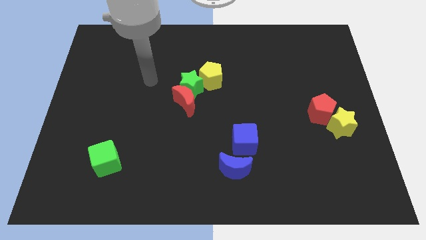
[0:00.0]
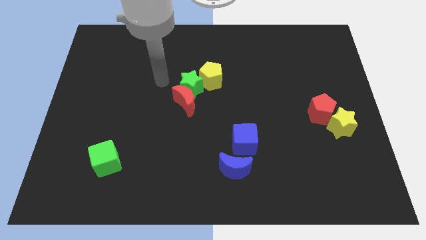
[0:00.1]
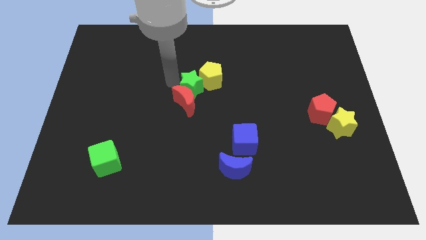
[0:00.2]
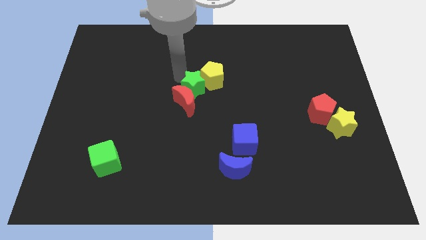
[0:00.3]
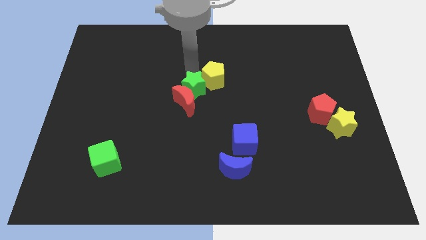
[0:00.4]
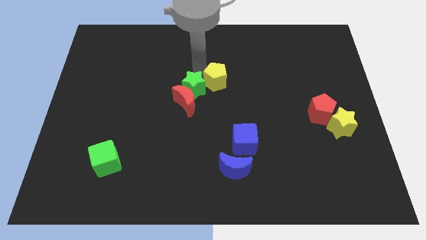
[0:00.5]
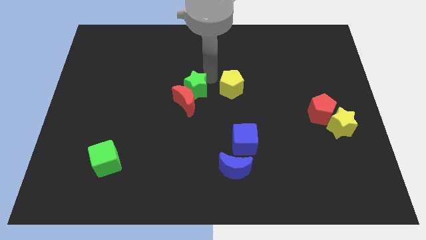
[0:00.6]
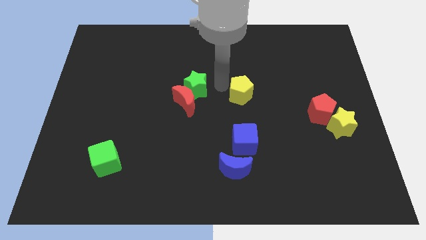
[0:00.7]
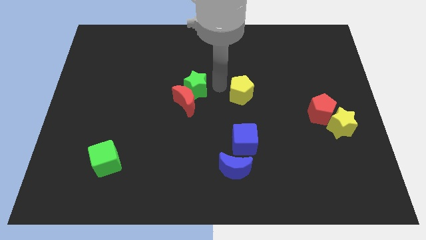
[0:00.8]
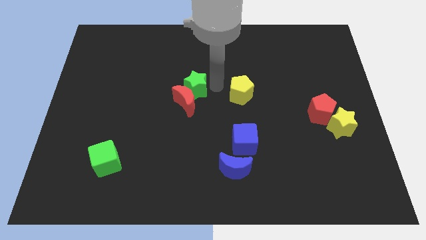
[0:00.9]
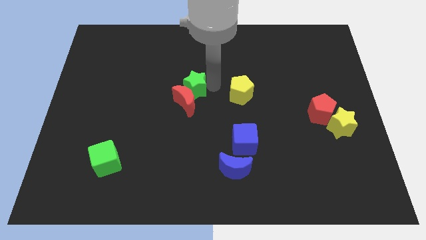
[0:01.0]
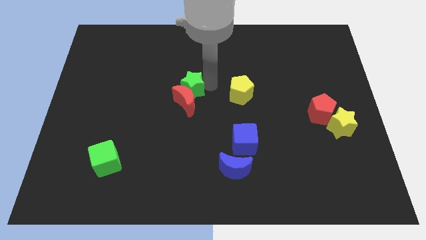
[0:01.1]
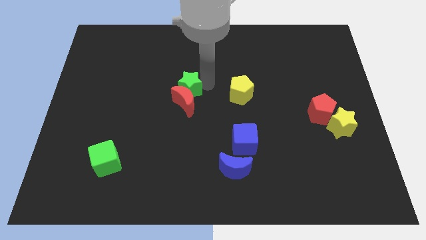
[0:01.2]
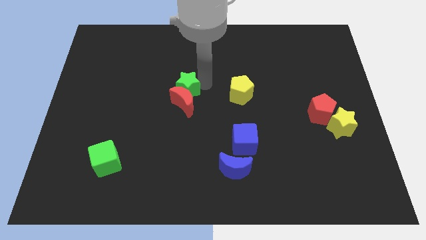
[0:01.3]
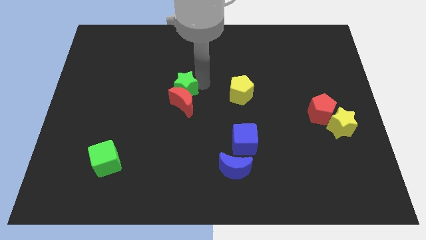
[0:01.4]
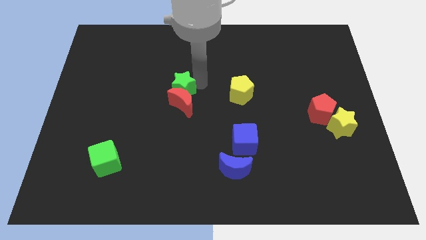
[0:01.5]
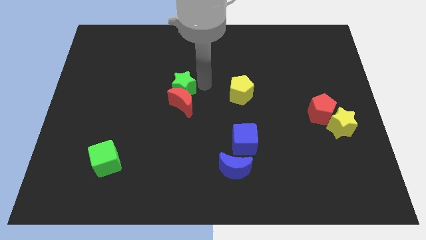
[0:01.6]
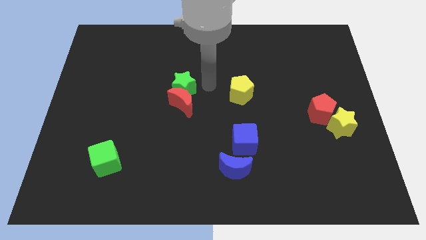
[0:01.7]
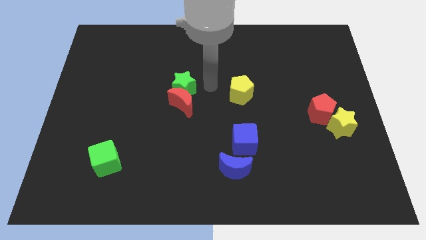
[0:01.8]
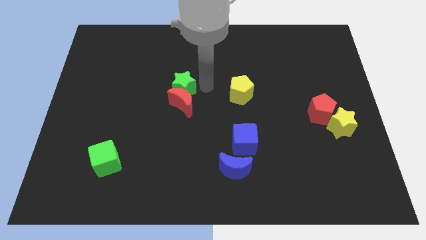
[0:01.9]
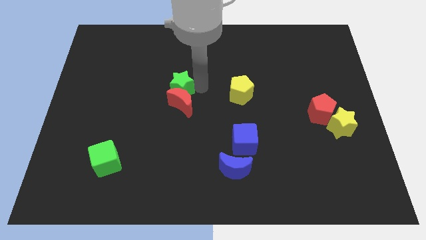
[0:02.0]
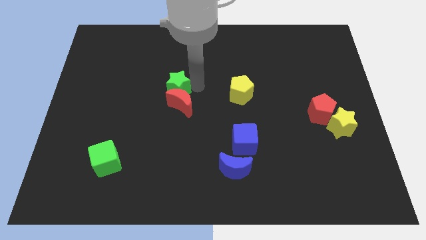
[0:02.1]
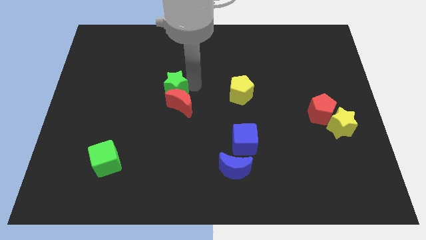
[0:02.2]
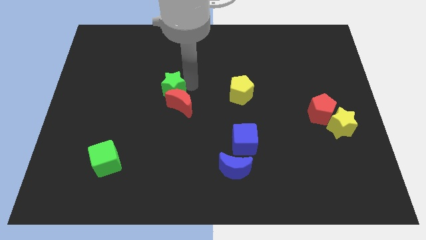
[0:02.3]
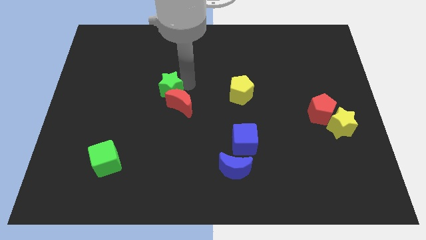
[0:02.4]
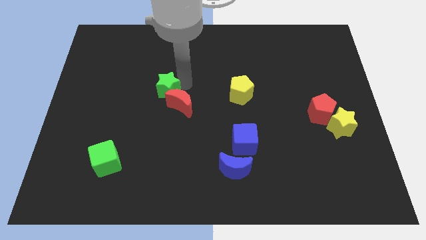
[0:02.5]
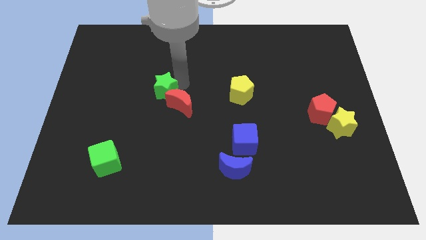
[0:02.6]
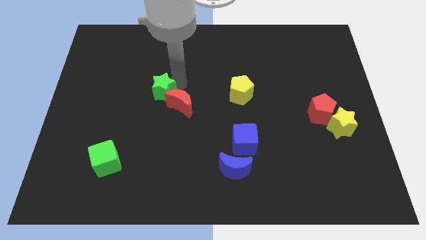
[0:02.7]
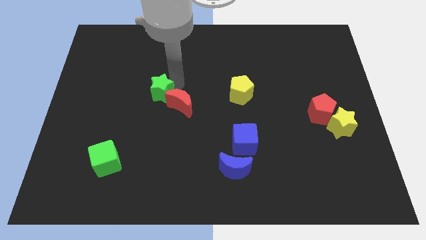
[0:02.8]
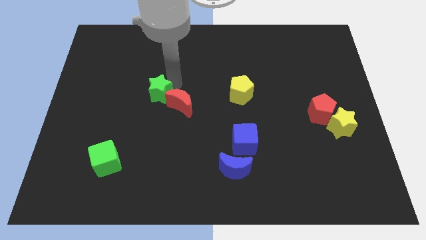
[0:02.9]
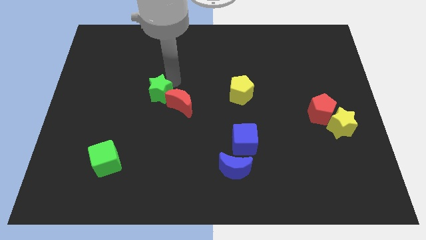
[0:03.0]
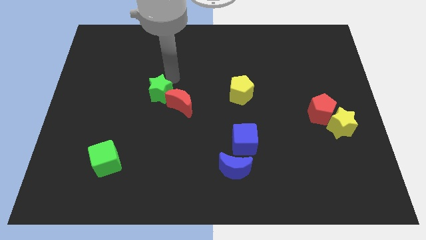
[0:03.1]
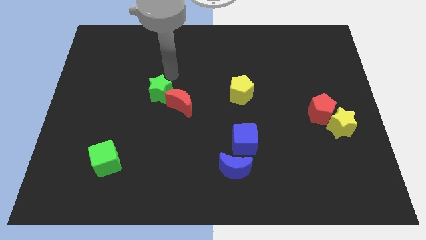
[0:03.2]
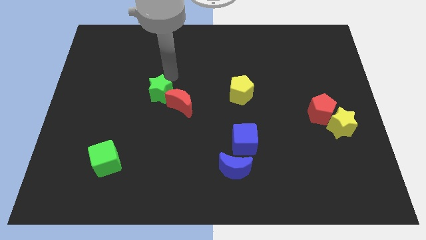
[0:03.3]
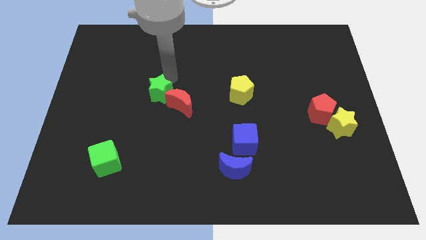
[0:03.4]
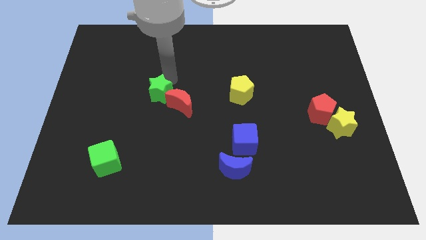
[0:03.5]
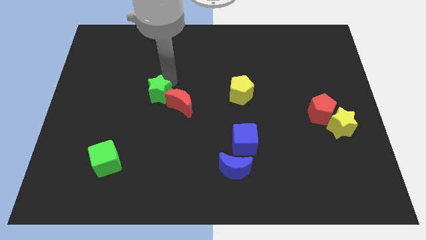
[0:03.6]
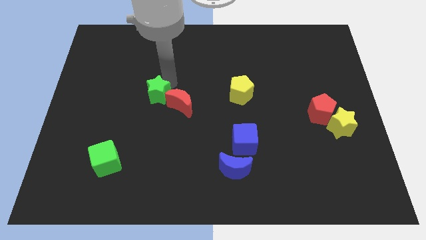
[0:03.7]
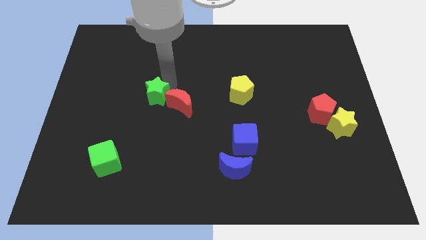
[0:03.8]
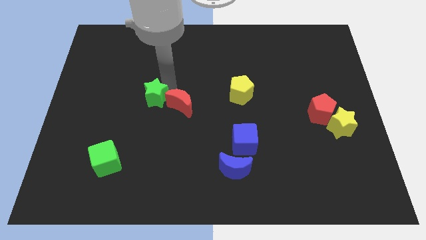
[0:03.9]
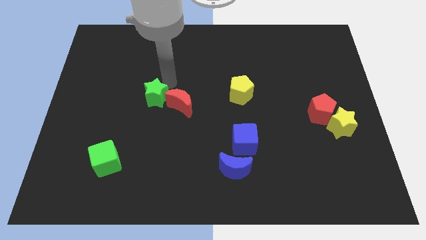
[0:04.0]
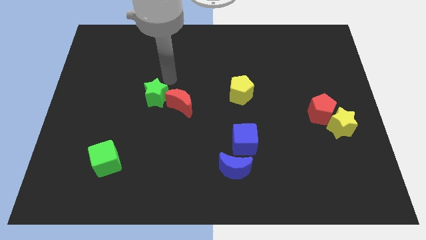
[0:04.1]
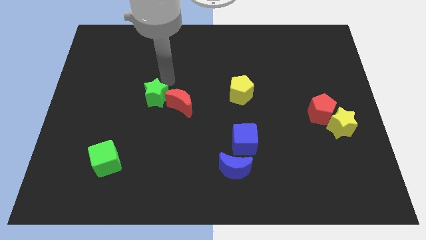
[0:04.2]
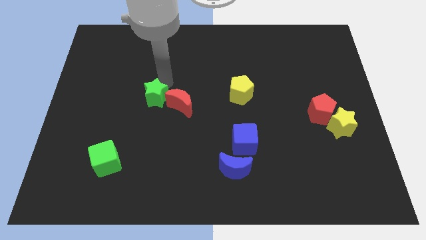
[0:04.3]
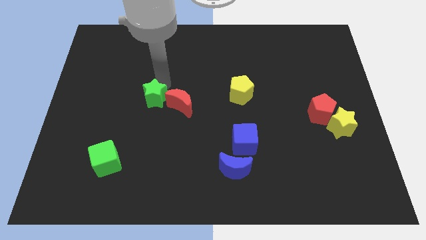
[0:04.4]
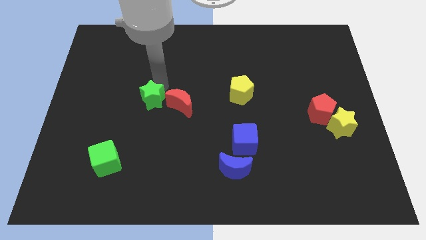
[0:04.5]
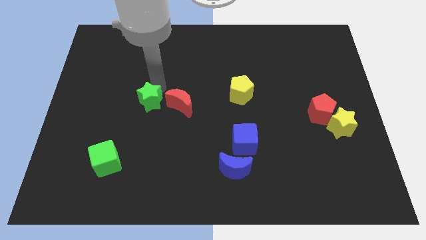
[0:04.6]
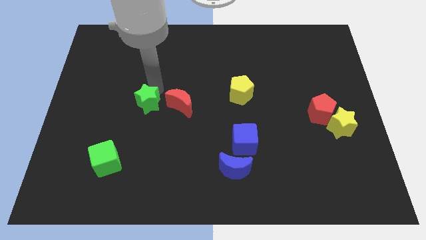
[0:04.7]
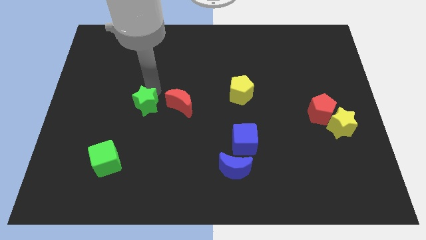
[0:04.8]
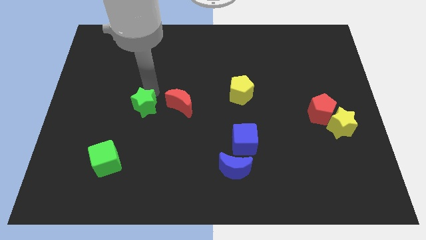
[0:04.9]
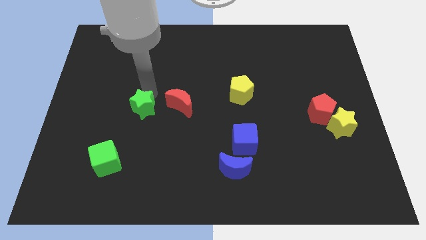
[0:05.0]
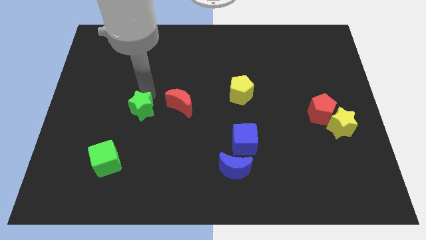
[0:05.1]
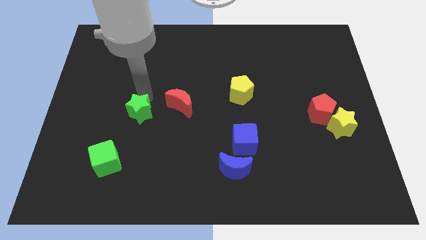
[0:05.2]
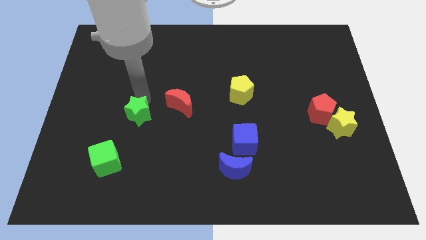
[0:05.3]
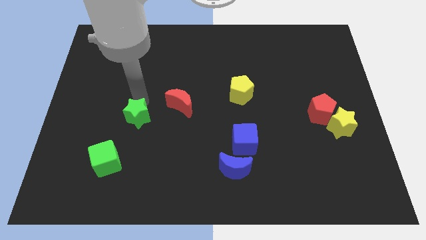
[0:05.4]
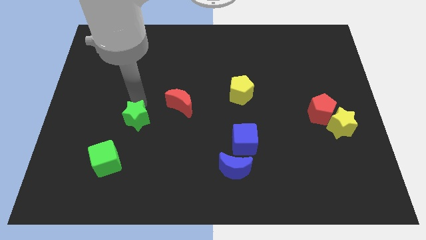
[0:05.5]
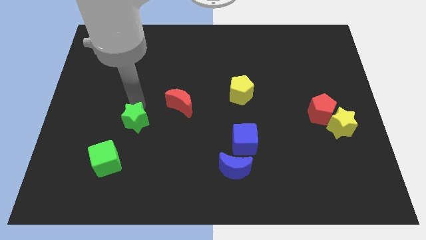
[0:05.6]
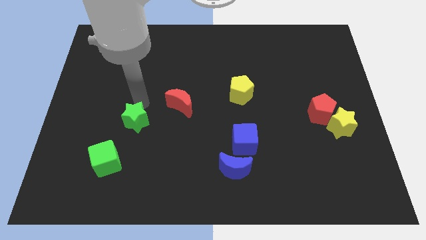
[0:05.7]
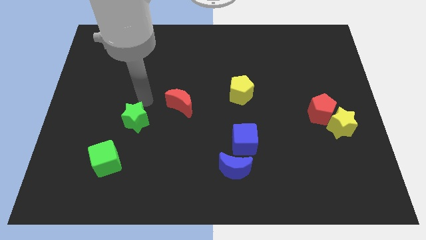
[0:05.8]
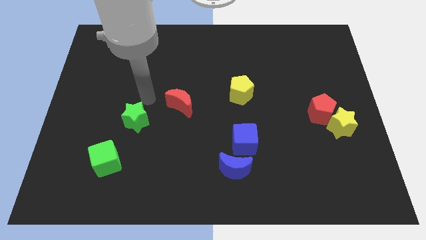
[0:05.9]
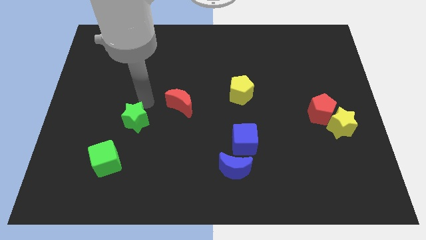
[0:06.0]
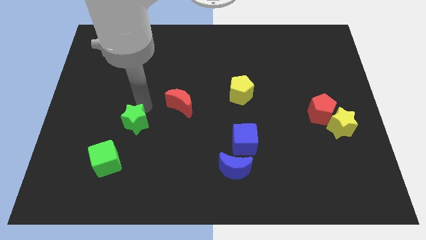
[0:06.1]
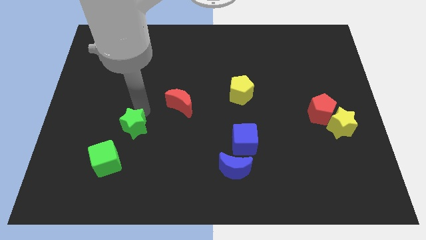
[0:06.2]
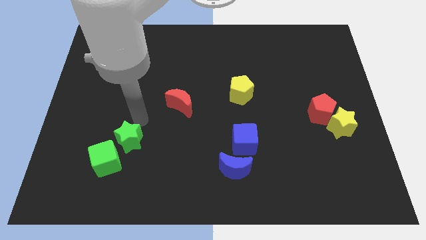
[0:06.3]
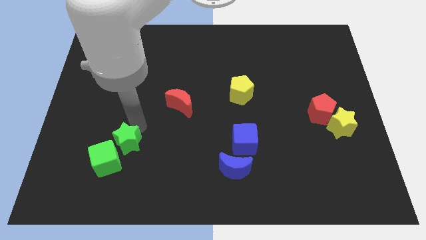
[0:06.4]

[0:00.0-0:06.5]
push the green star towards the green cube
